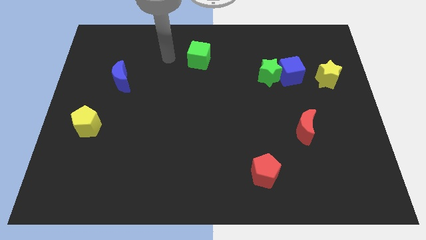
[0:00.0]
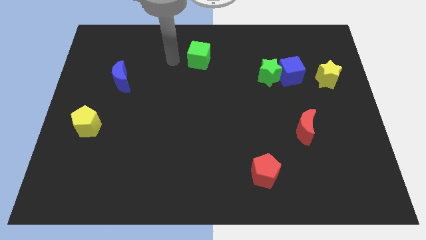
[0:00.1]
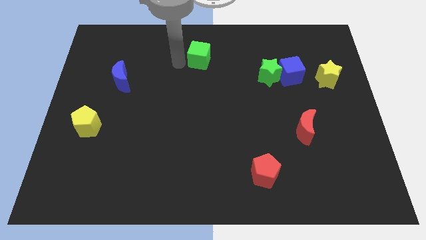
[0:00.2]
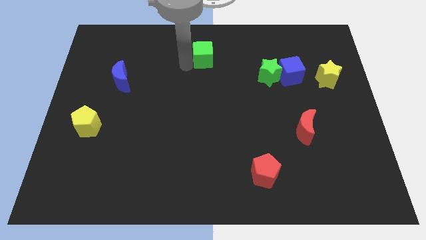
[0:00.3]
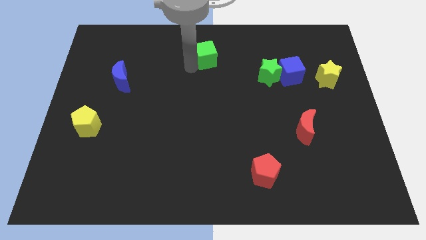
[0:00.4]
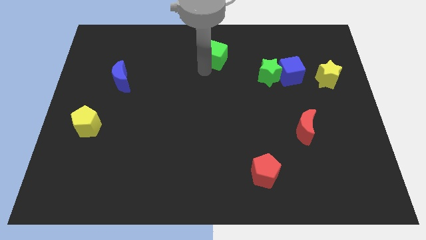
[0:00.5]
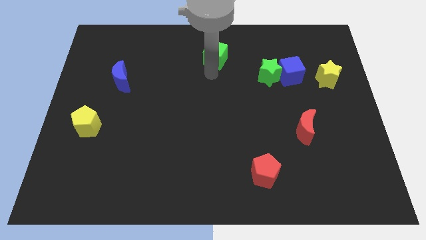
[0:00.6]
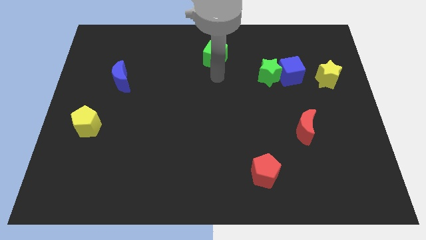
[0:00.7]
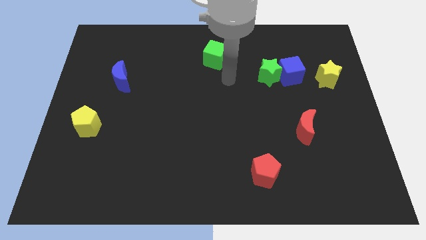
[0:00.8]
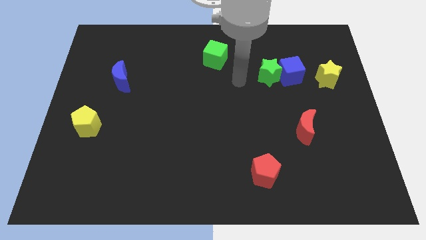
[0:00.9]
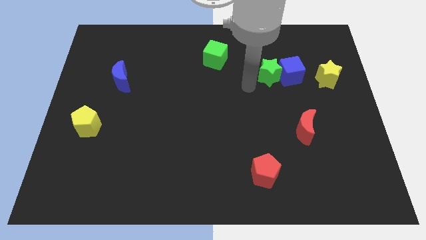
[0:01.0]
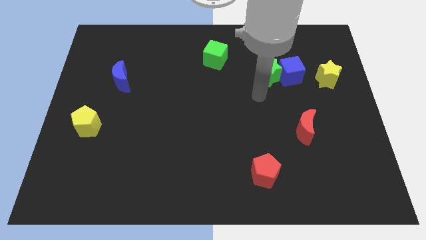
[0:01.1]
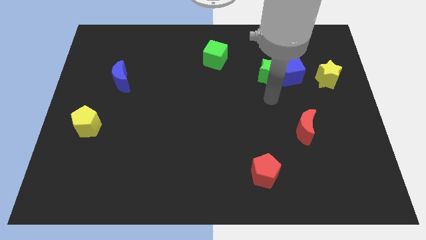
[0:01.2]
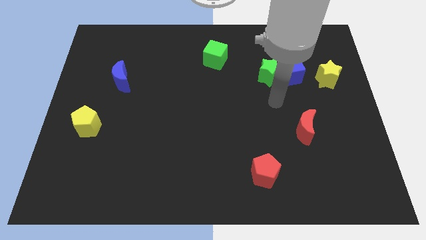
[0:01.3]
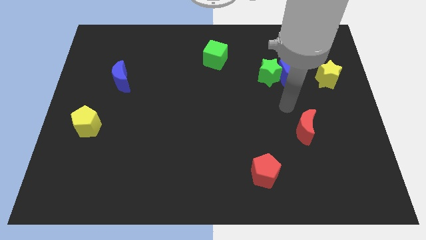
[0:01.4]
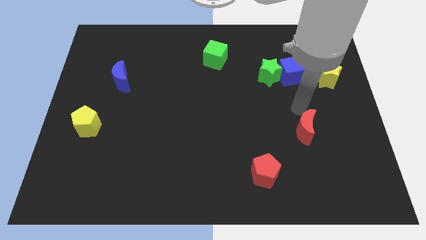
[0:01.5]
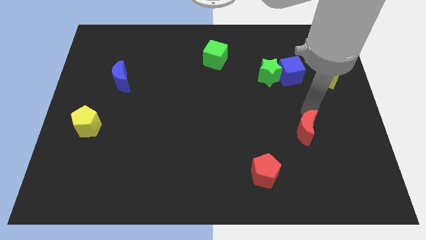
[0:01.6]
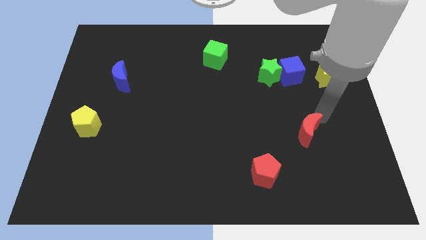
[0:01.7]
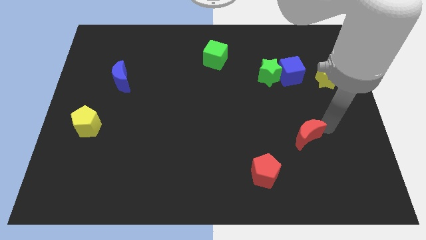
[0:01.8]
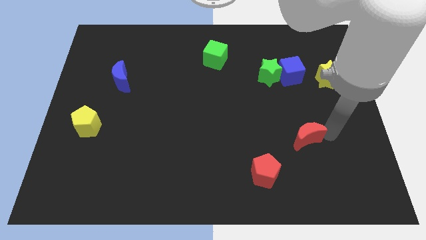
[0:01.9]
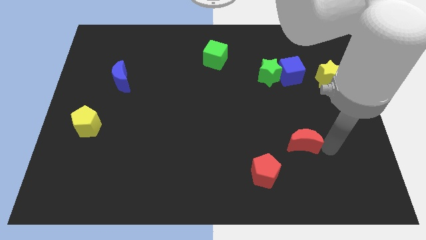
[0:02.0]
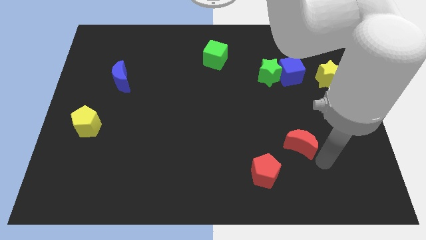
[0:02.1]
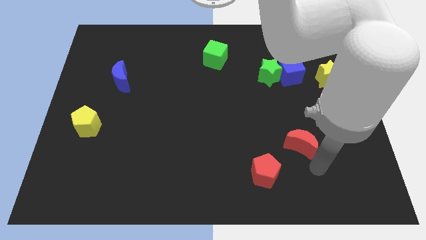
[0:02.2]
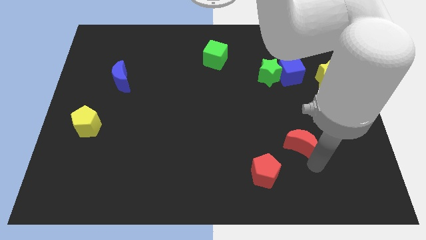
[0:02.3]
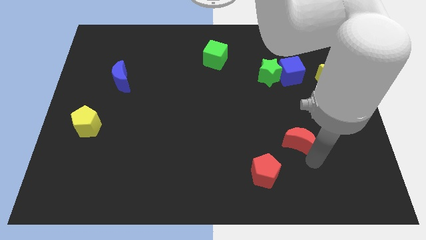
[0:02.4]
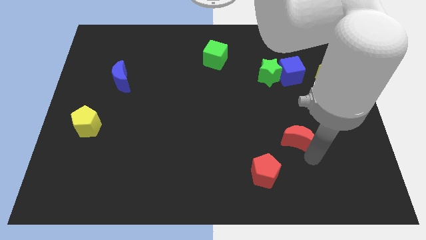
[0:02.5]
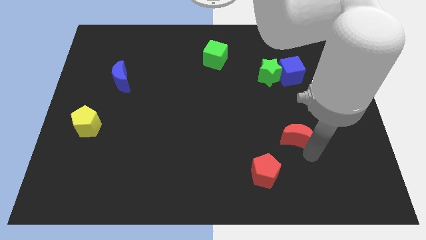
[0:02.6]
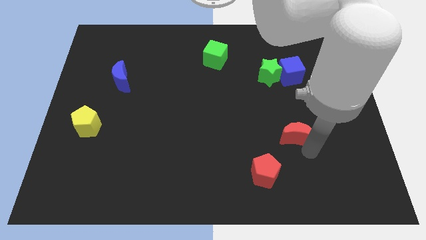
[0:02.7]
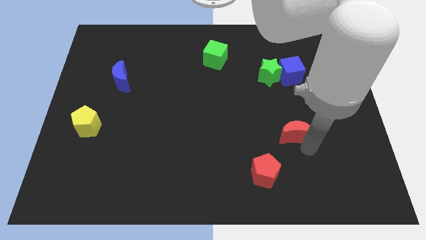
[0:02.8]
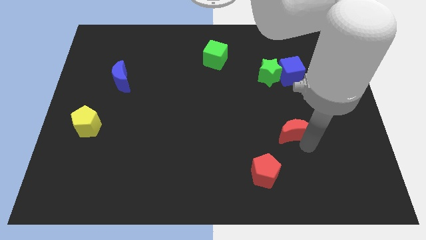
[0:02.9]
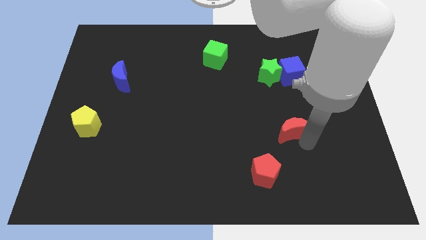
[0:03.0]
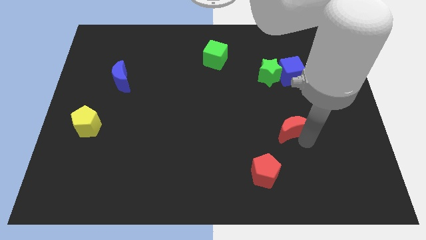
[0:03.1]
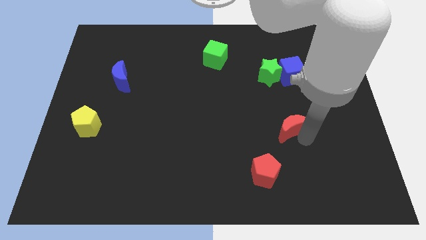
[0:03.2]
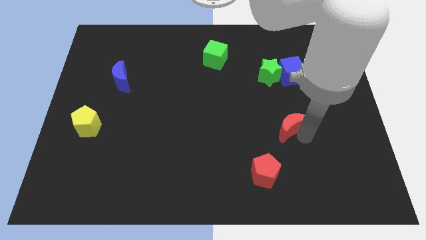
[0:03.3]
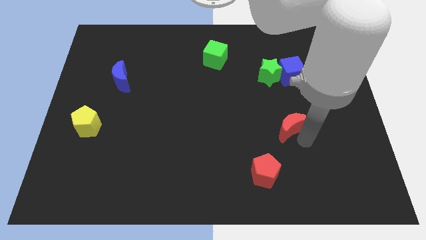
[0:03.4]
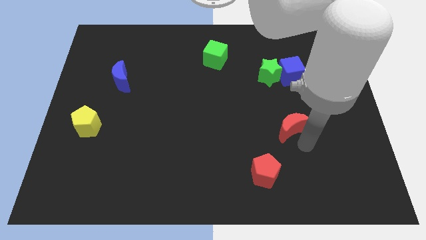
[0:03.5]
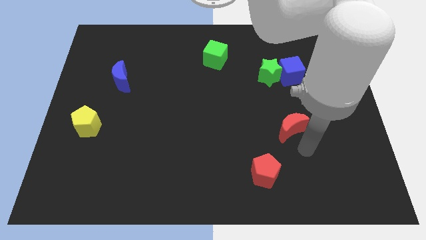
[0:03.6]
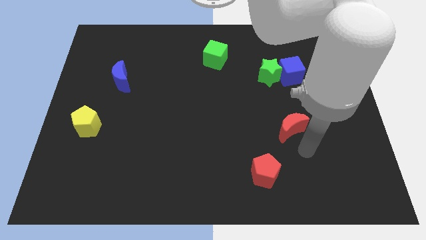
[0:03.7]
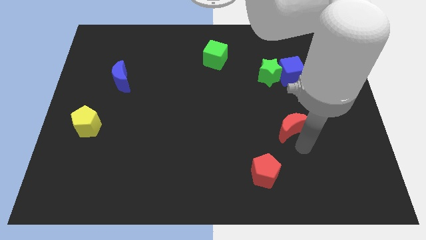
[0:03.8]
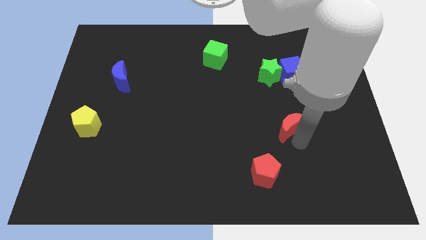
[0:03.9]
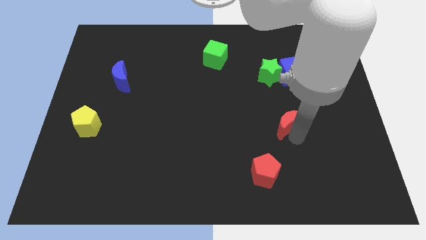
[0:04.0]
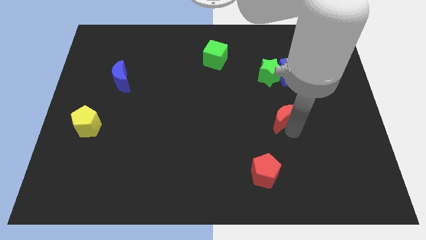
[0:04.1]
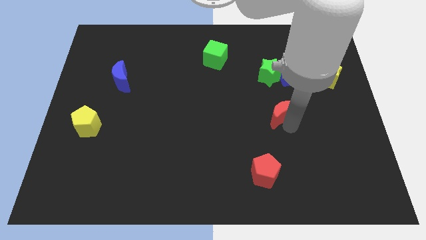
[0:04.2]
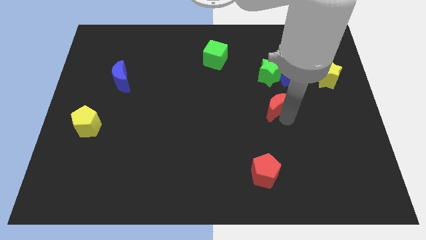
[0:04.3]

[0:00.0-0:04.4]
slightly push the red moon upwards and to the left diagonally

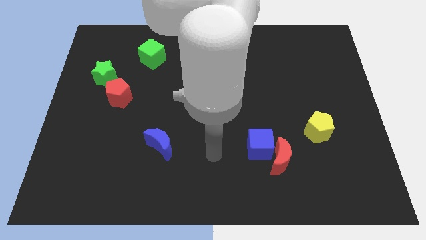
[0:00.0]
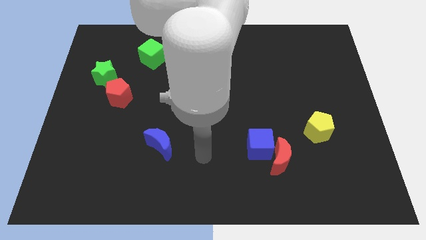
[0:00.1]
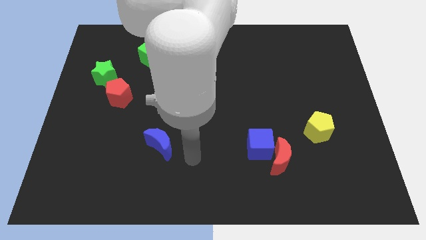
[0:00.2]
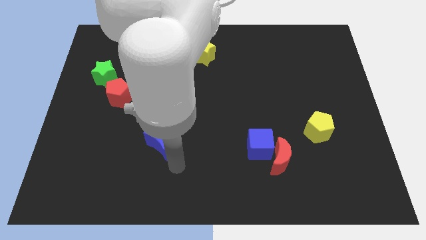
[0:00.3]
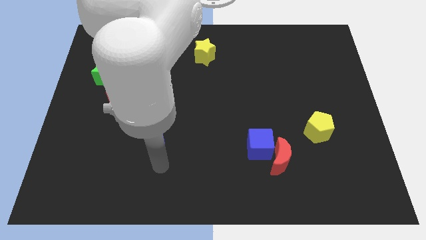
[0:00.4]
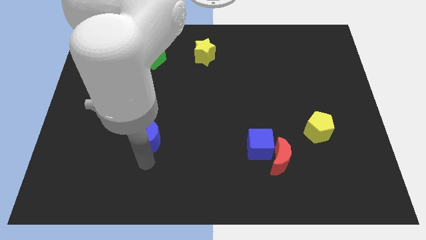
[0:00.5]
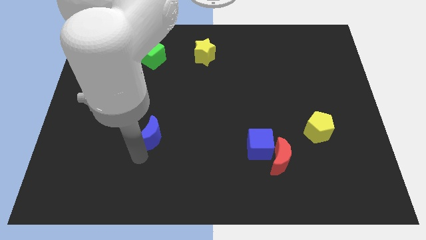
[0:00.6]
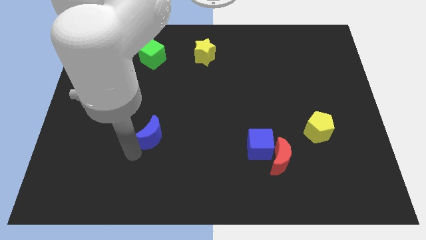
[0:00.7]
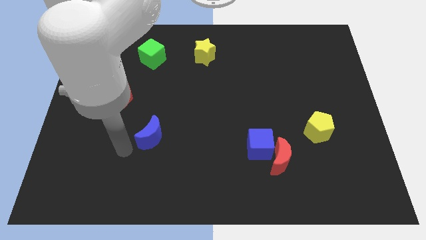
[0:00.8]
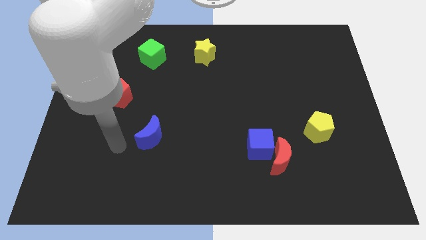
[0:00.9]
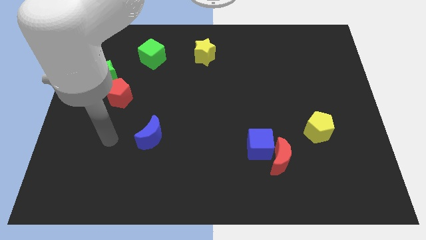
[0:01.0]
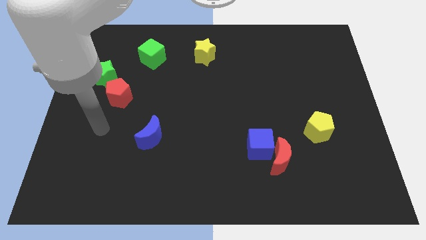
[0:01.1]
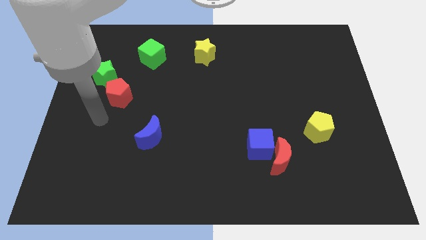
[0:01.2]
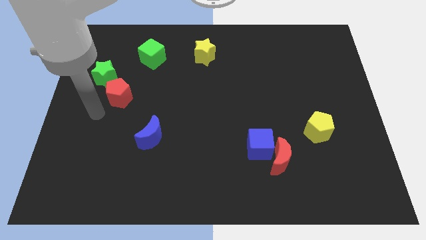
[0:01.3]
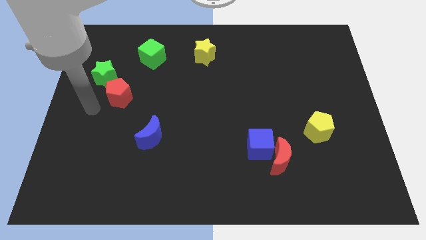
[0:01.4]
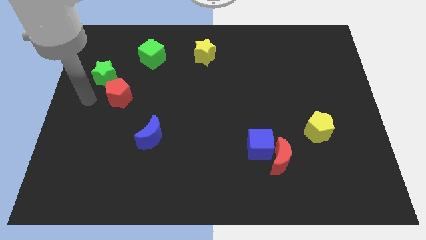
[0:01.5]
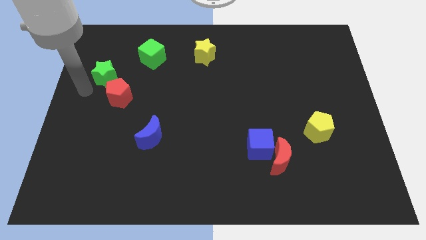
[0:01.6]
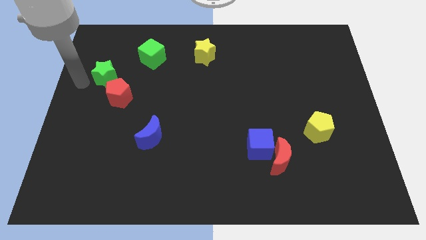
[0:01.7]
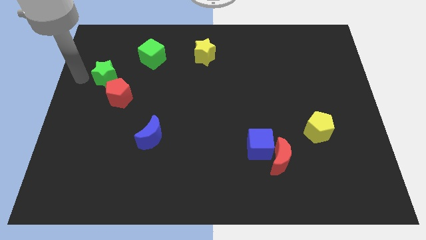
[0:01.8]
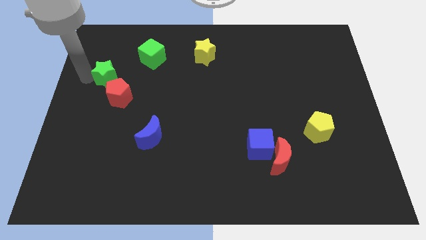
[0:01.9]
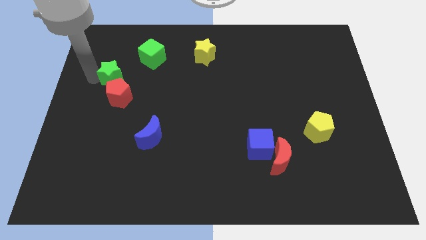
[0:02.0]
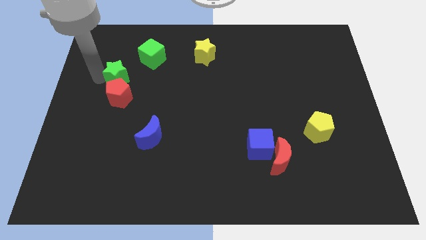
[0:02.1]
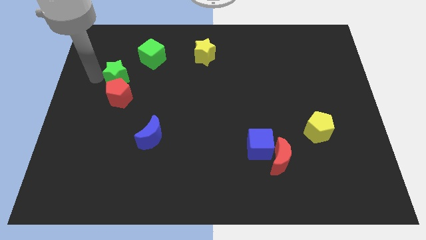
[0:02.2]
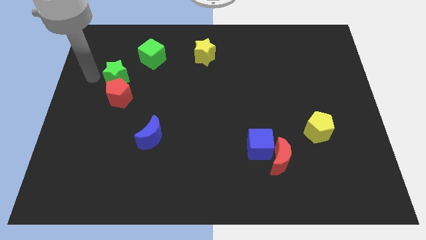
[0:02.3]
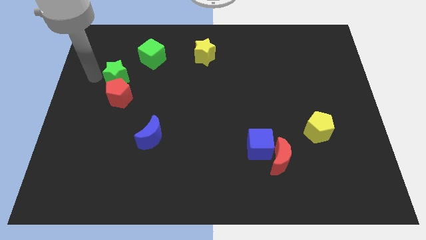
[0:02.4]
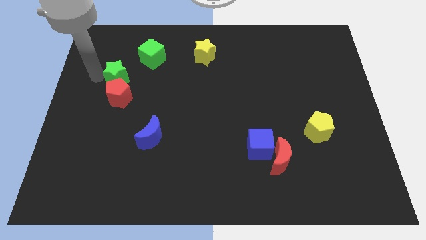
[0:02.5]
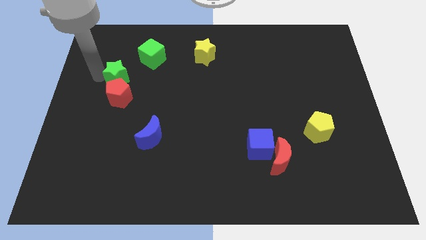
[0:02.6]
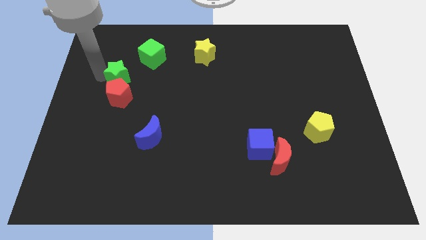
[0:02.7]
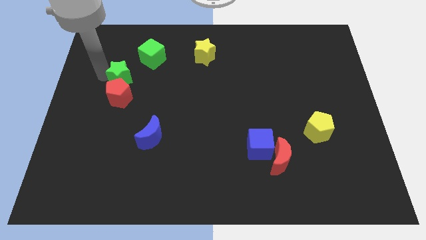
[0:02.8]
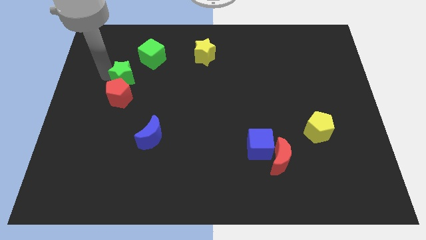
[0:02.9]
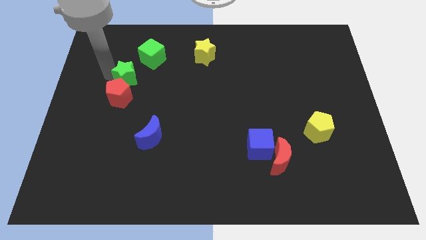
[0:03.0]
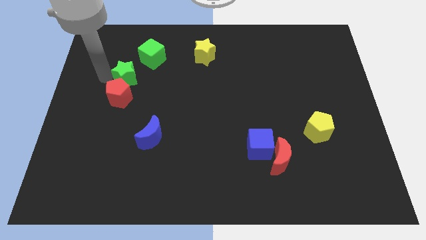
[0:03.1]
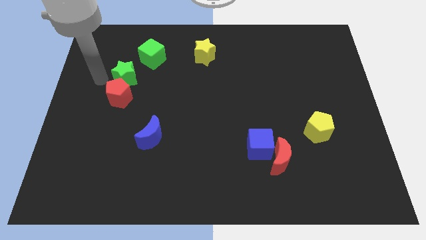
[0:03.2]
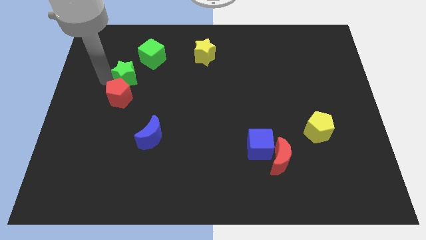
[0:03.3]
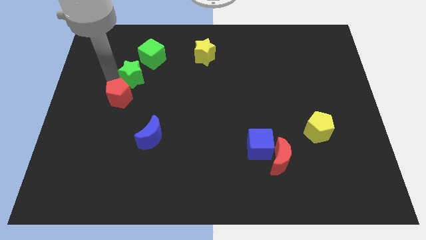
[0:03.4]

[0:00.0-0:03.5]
push the green star a little bit to the right
